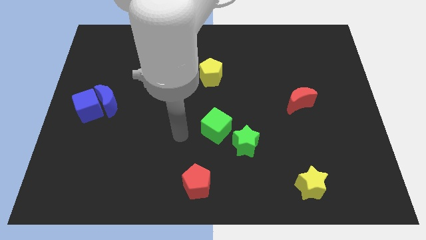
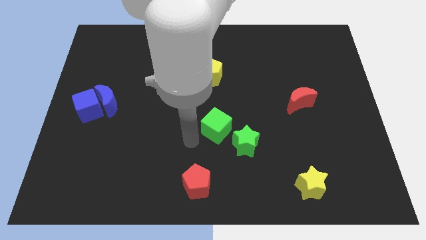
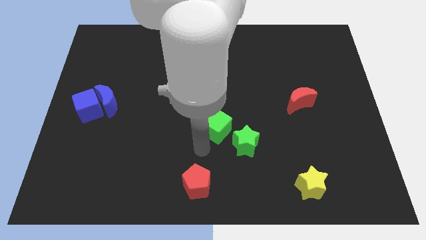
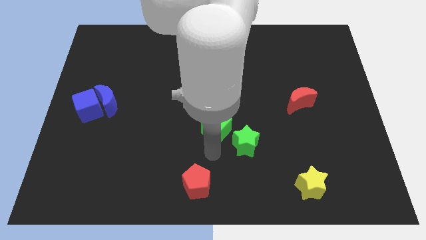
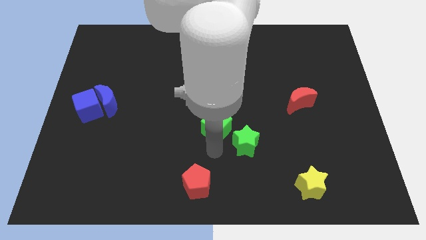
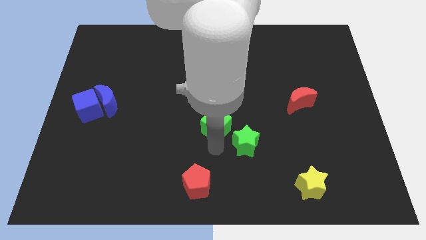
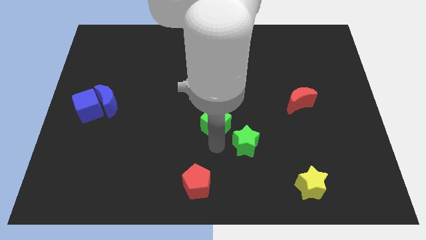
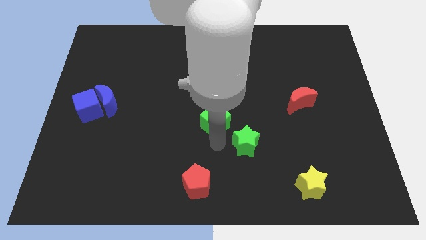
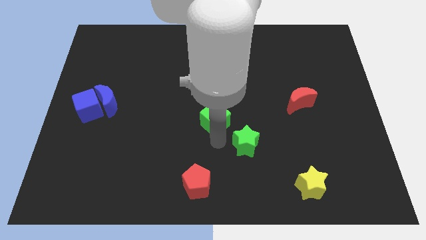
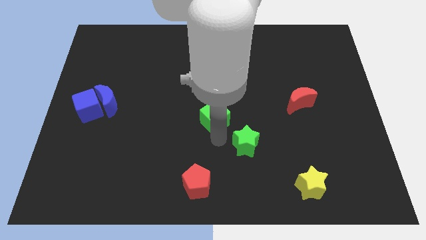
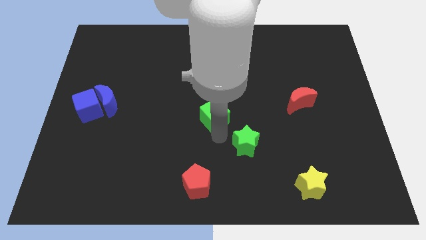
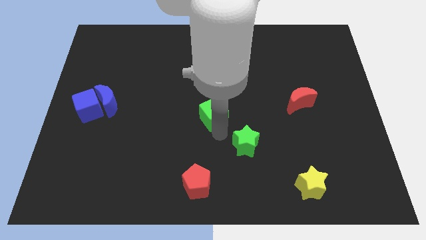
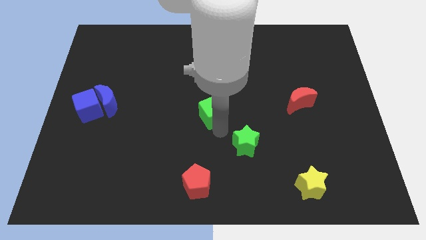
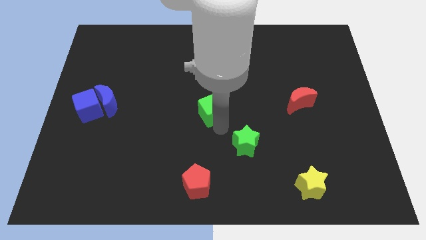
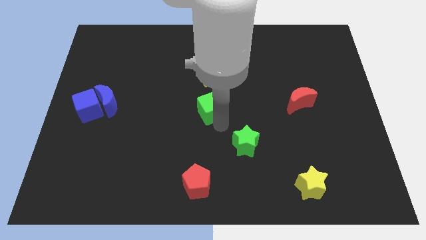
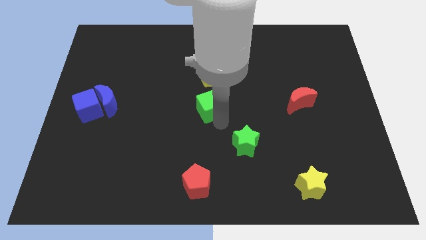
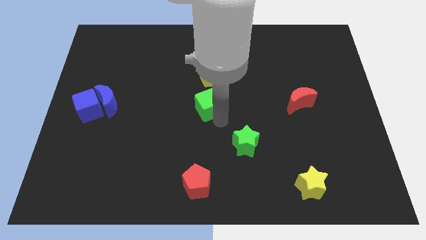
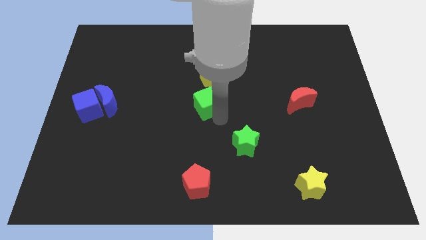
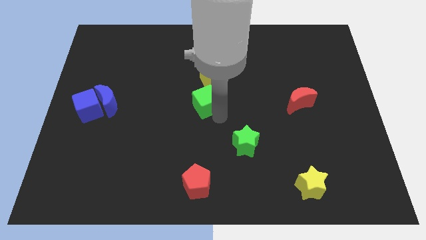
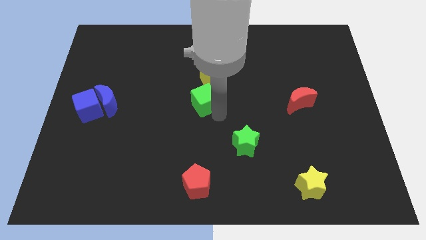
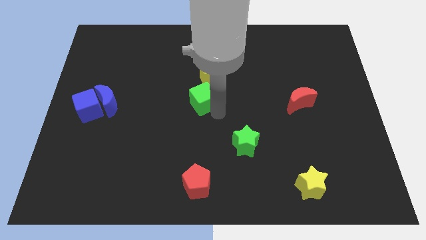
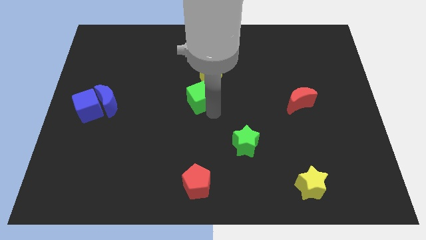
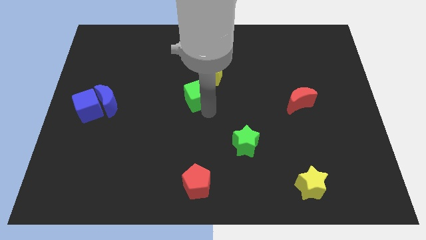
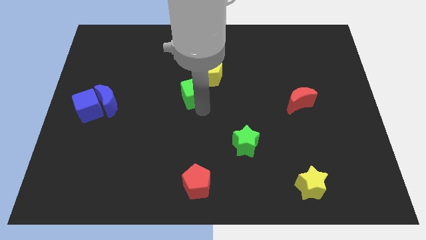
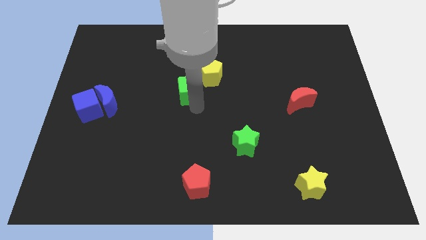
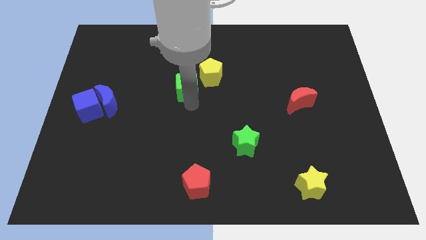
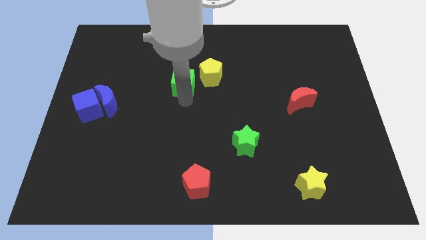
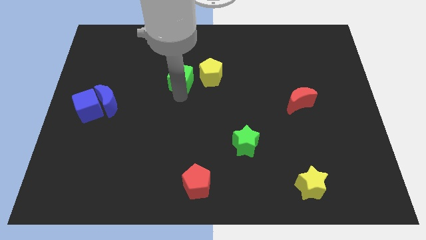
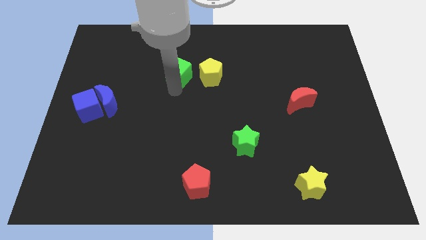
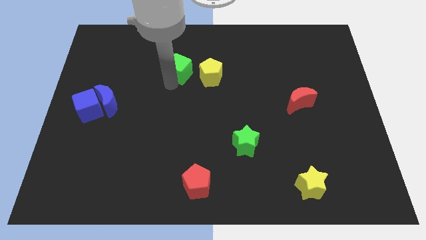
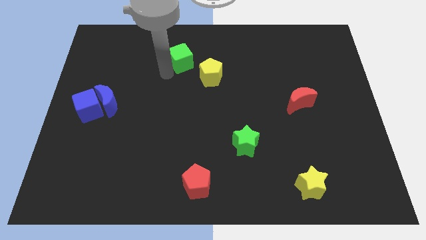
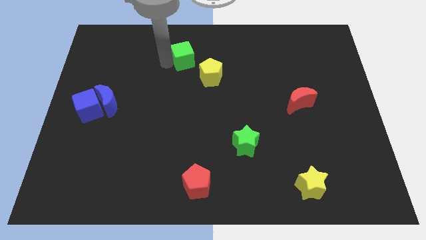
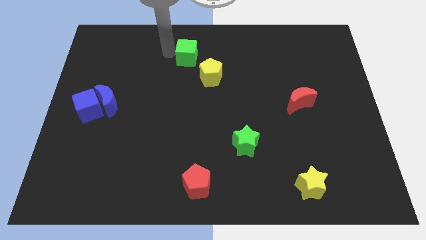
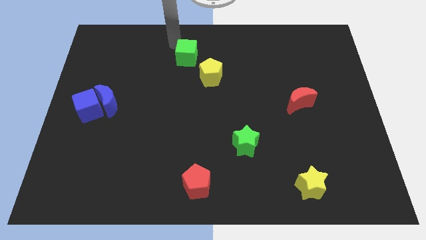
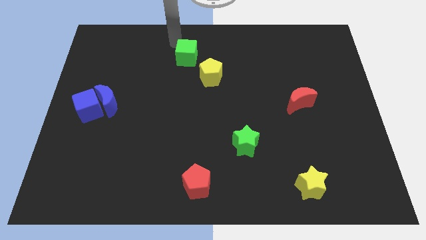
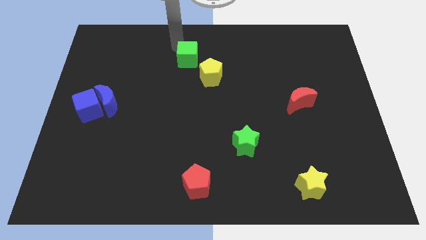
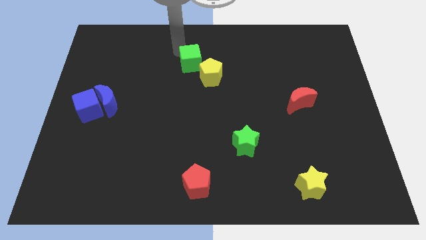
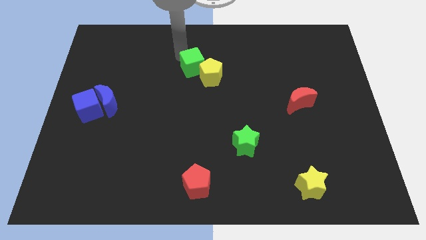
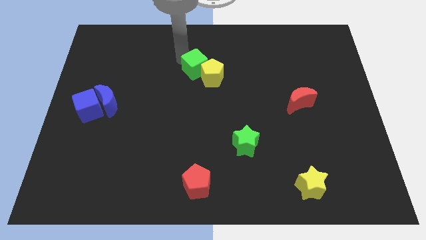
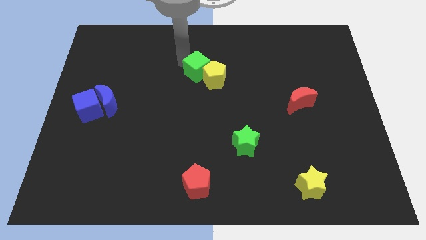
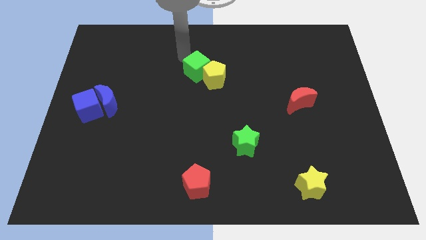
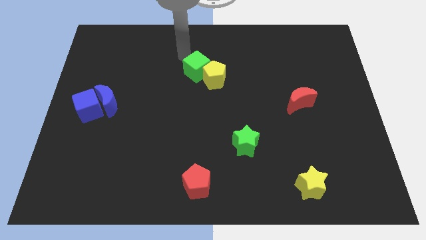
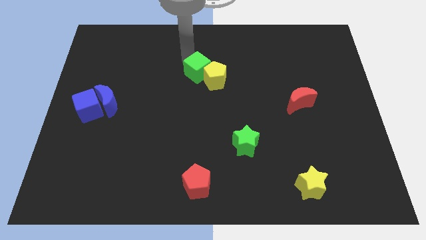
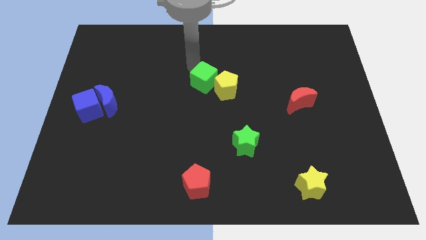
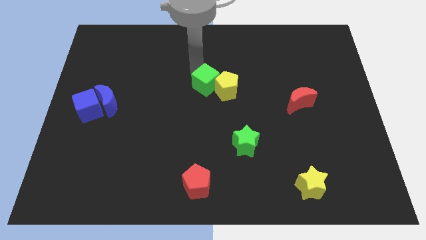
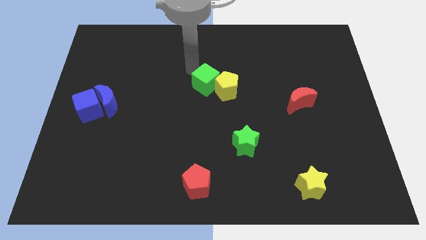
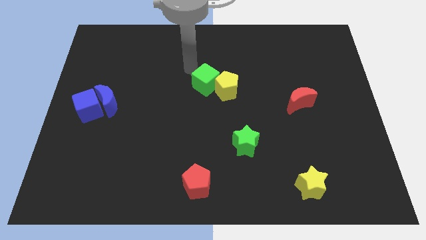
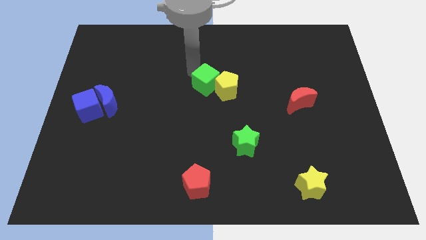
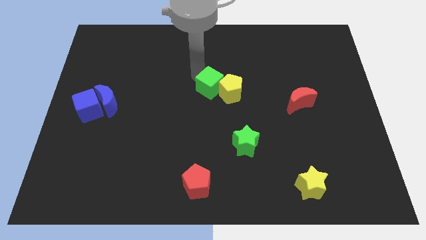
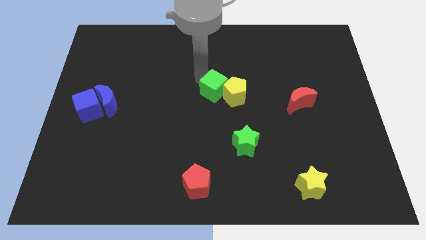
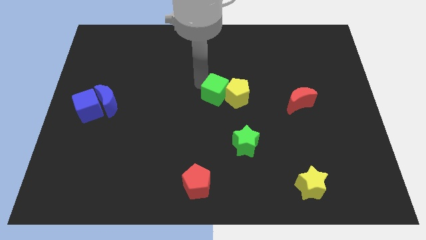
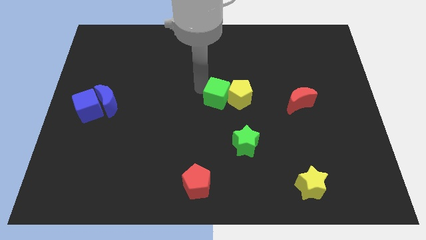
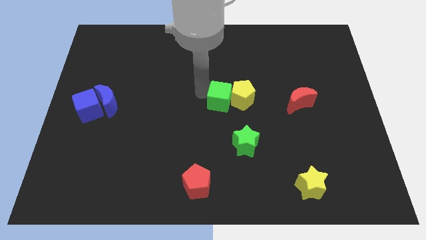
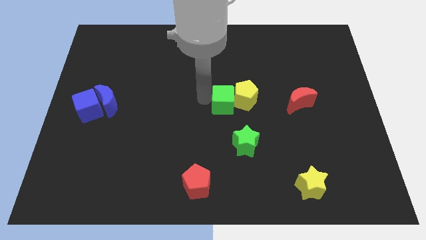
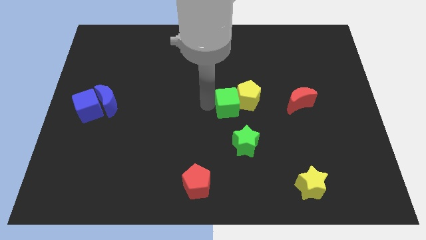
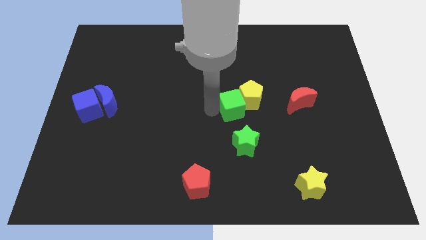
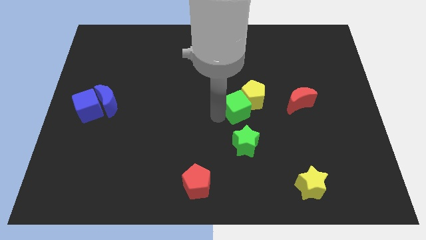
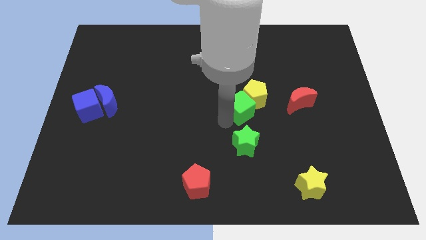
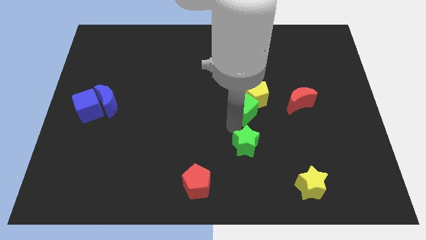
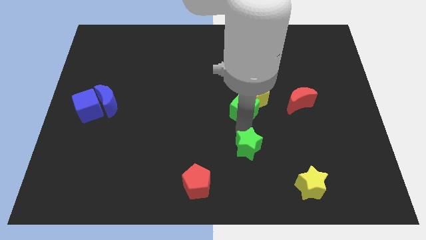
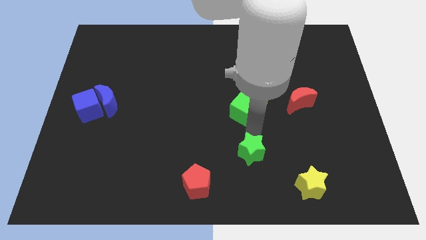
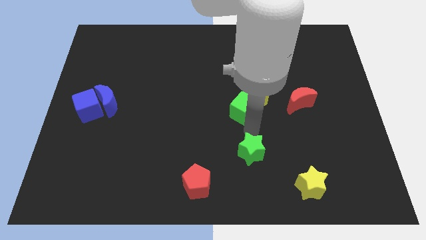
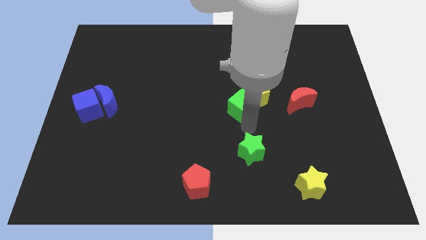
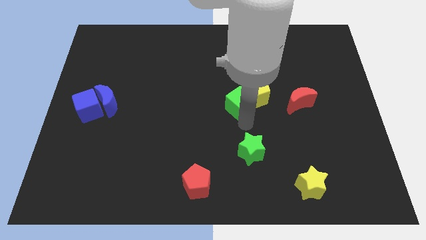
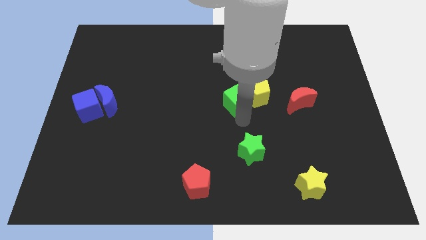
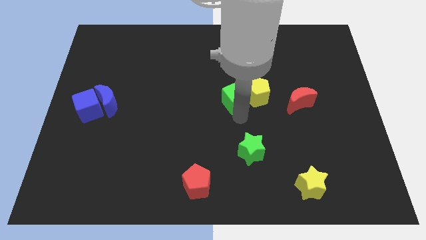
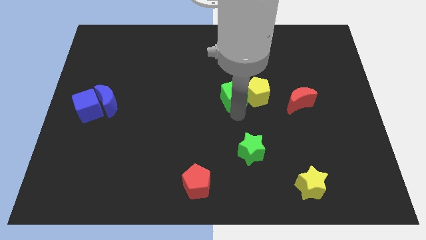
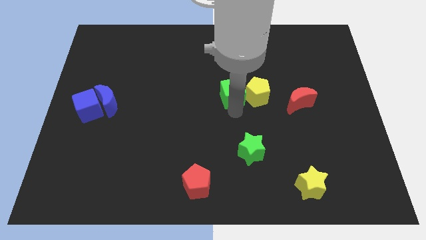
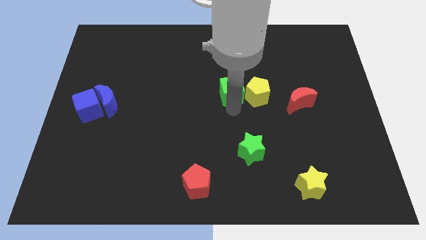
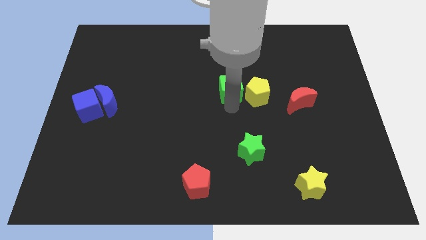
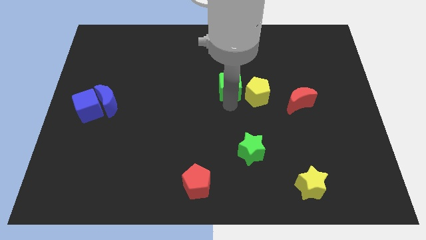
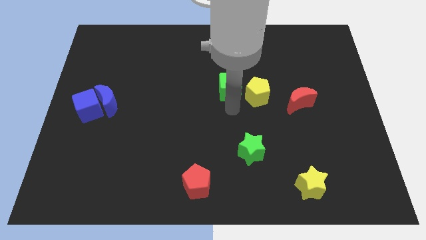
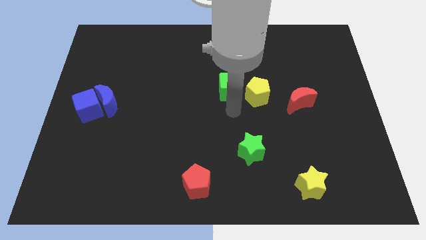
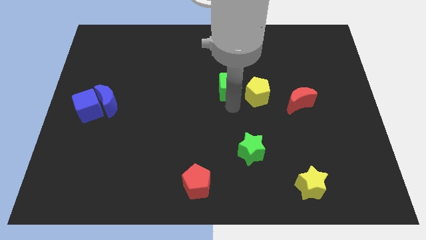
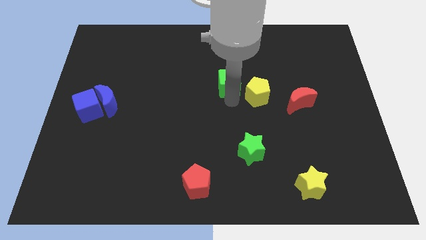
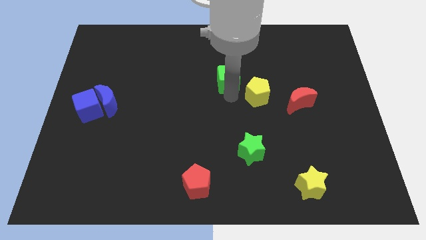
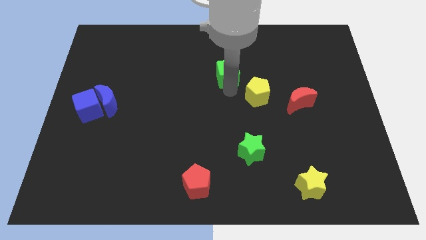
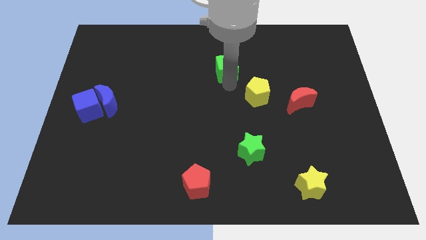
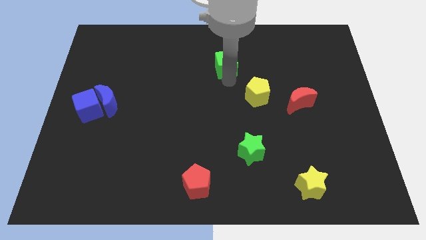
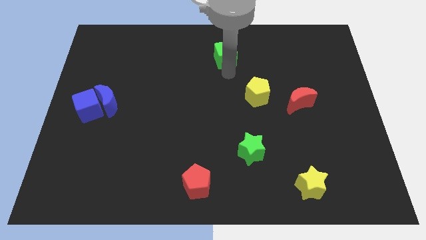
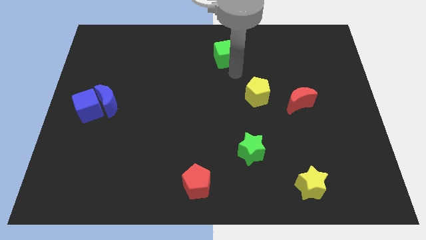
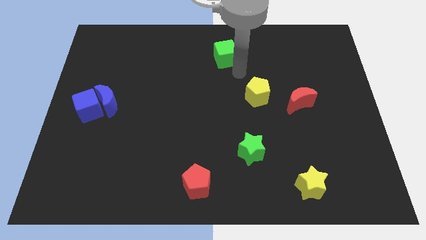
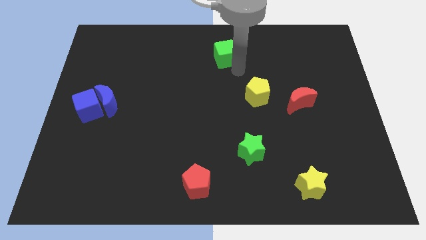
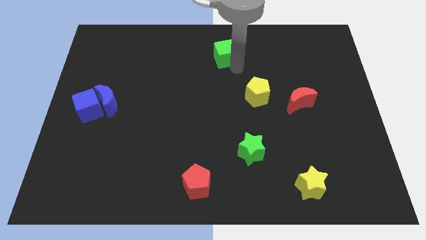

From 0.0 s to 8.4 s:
push the green cube to the towards your base
